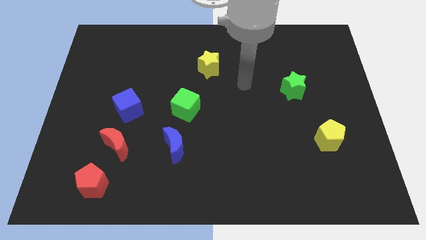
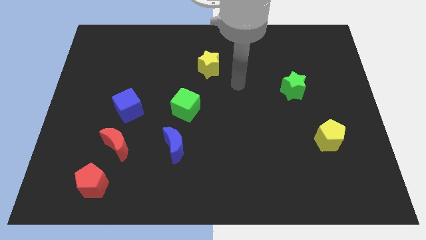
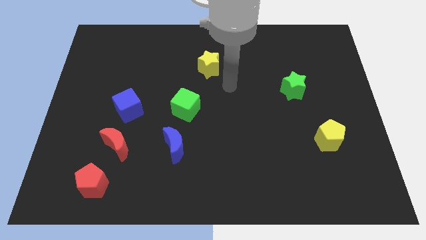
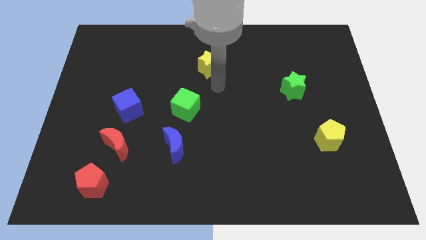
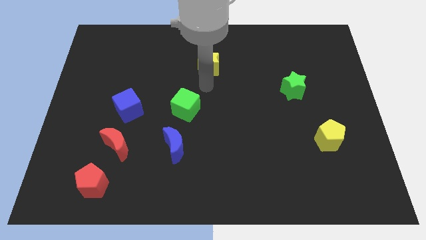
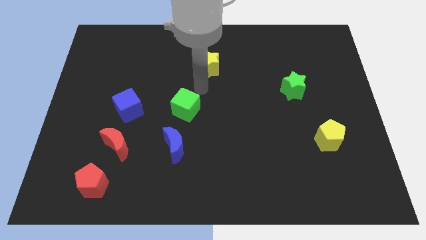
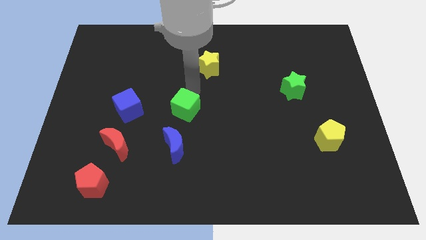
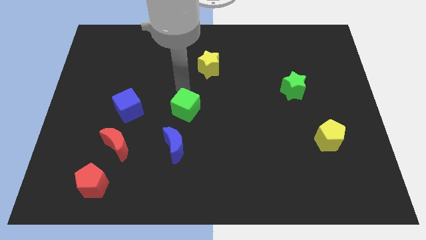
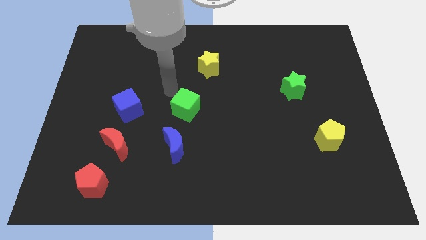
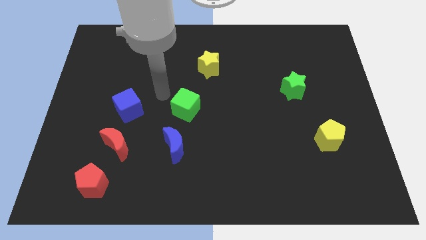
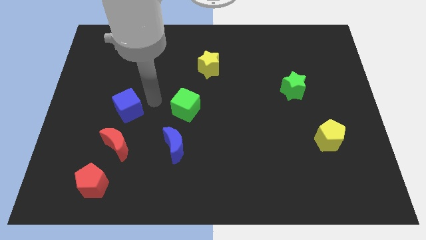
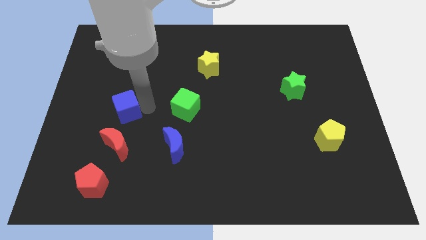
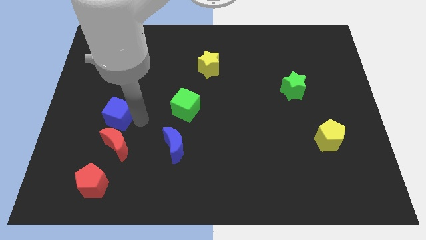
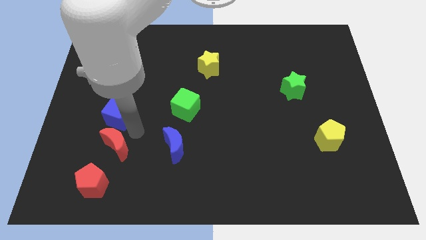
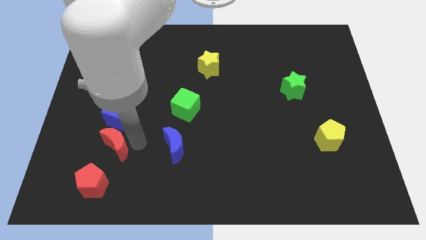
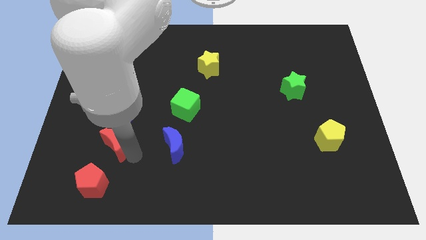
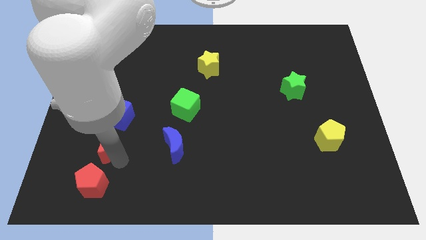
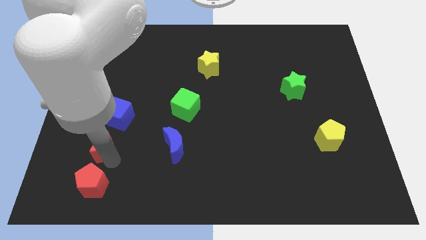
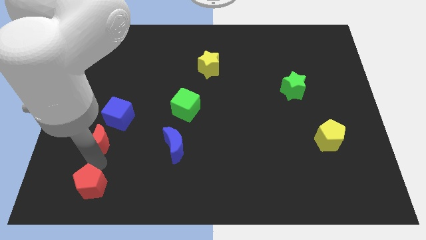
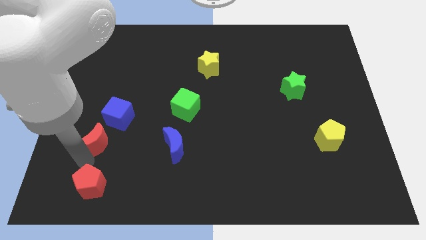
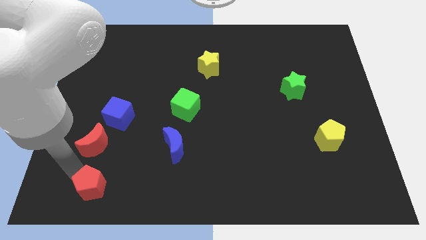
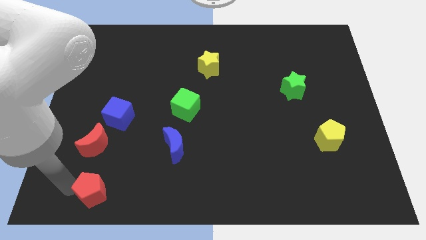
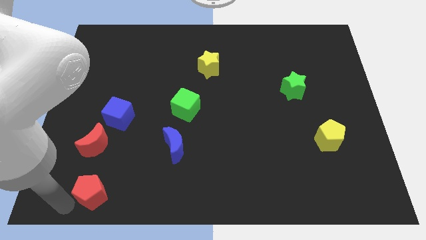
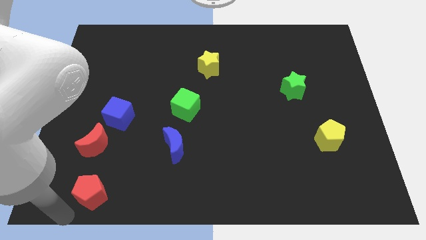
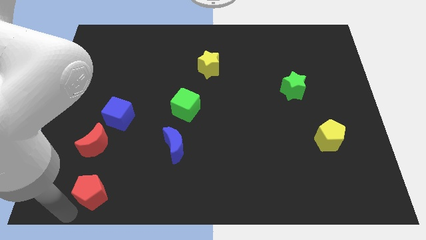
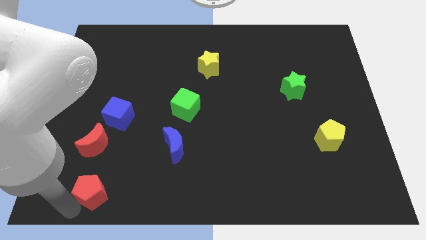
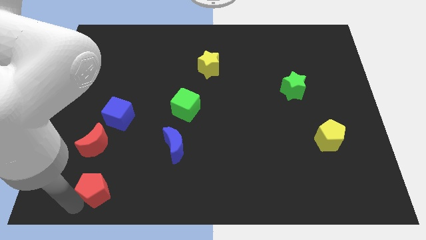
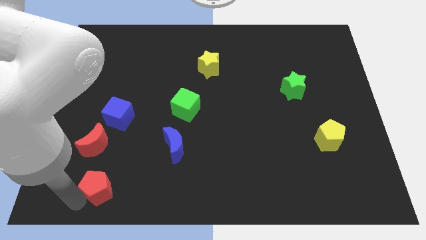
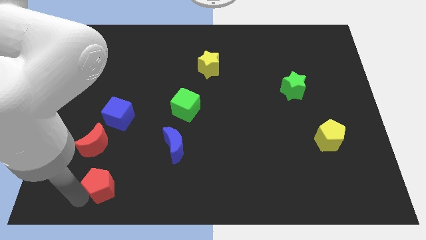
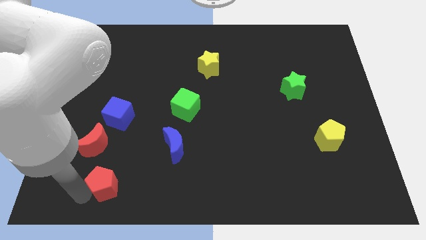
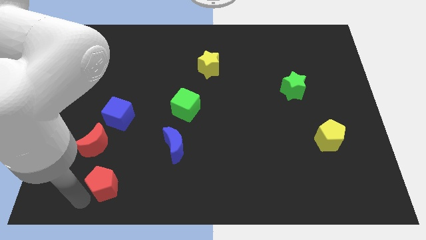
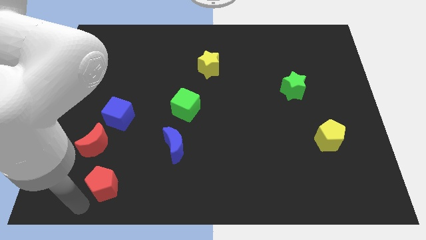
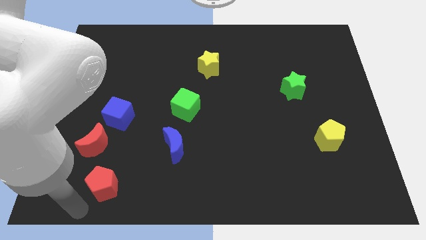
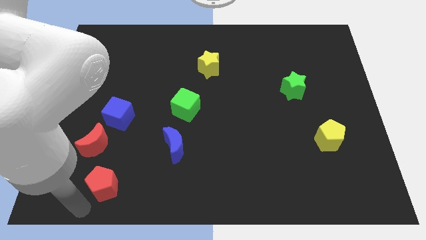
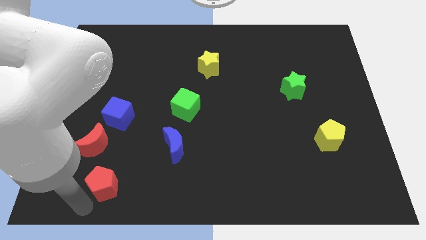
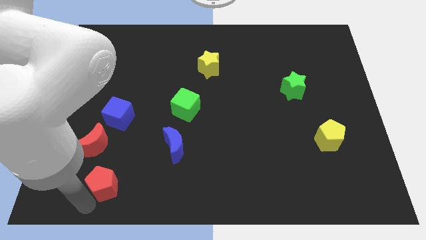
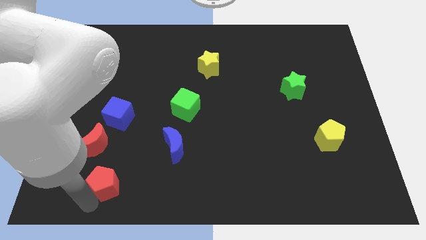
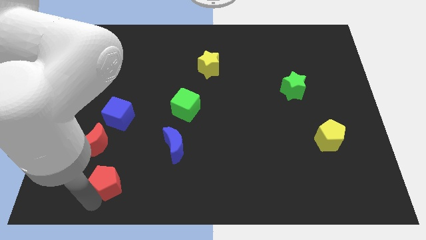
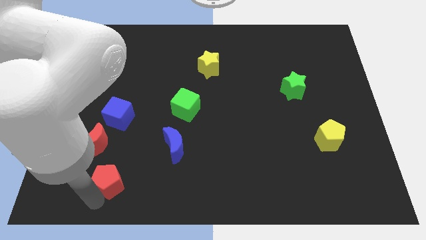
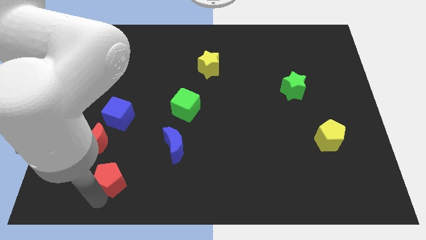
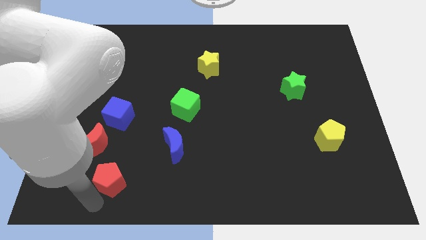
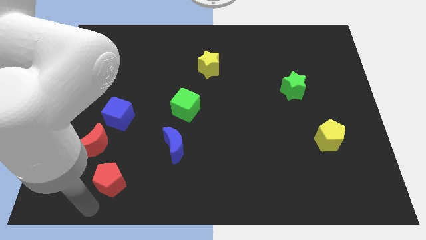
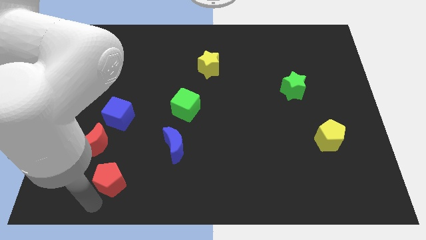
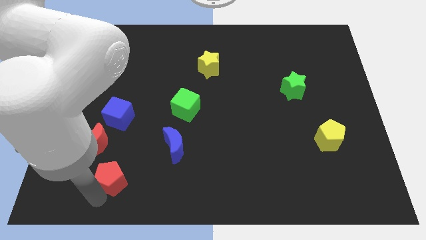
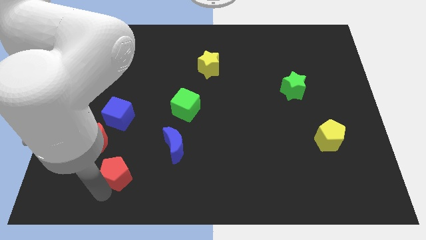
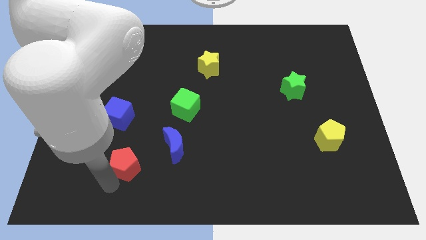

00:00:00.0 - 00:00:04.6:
slightly move the red pentagon up and right

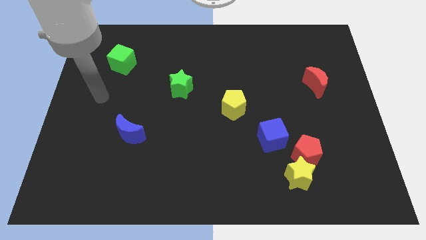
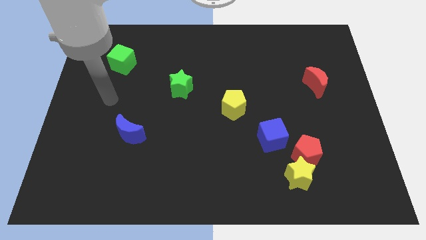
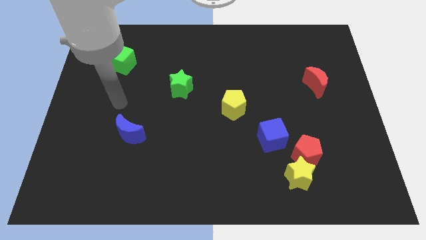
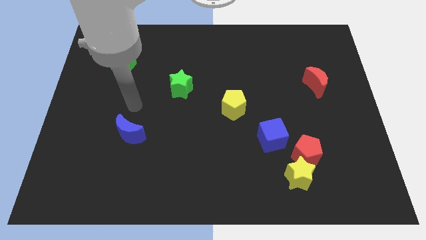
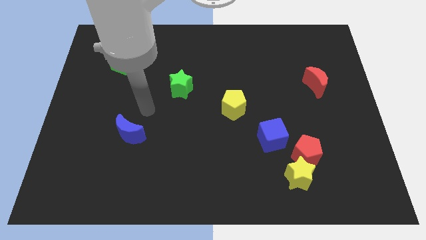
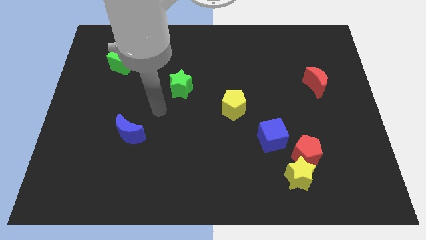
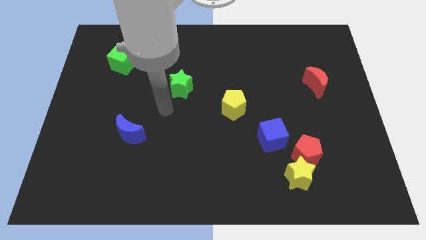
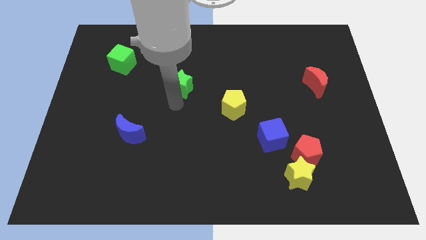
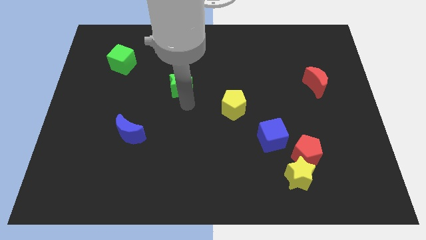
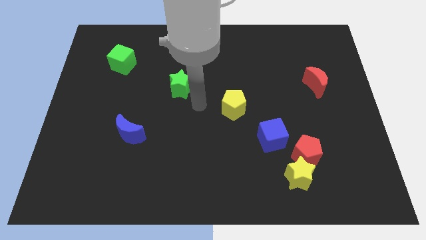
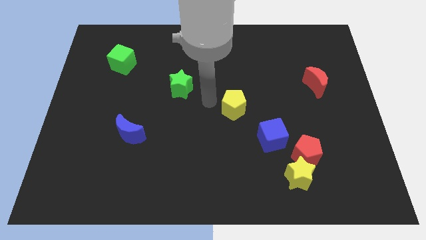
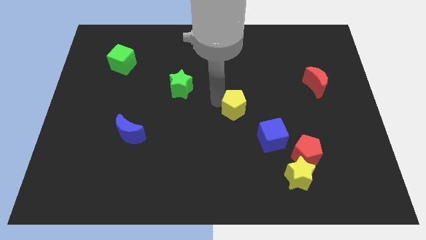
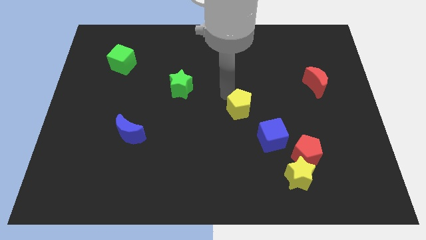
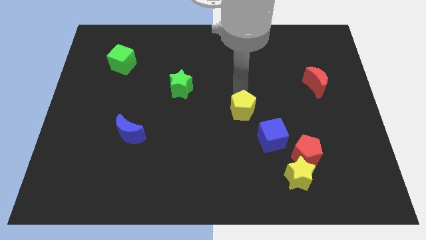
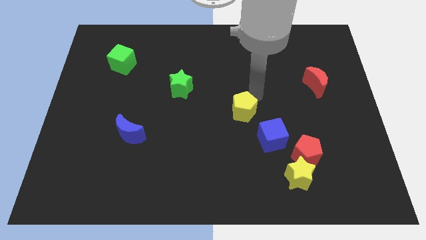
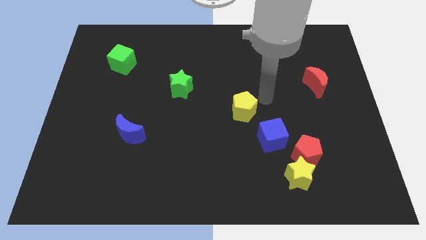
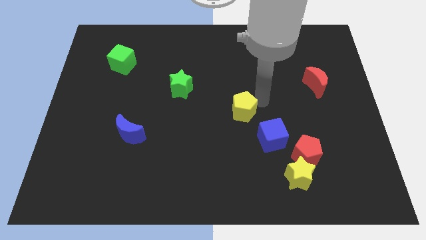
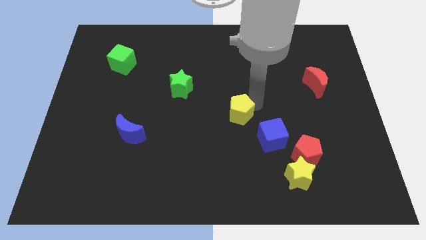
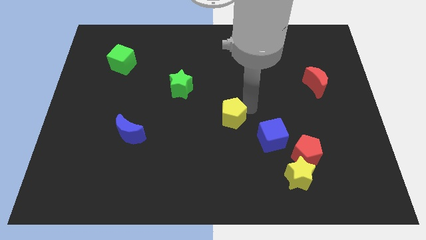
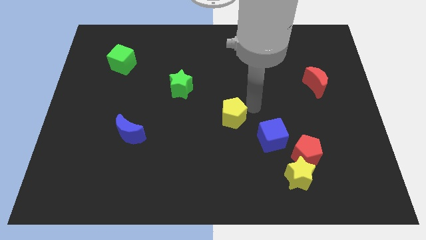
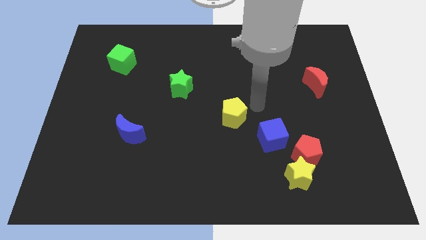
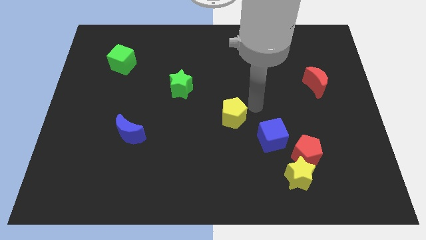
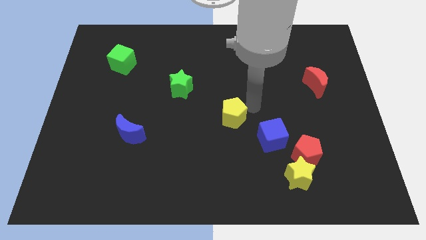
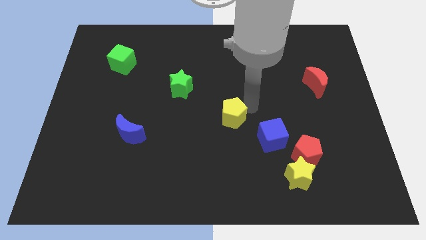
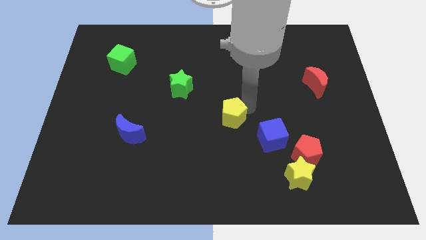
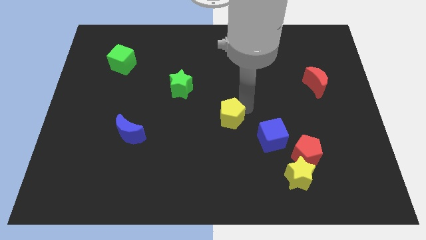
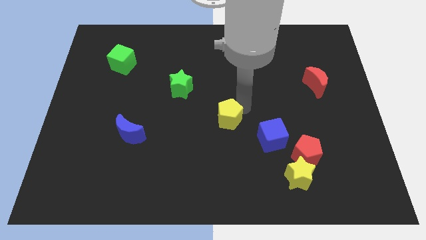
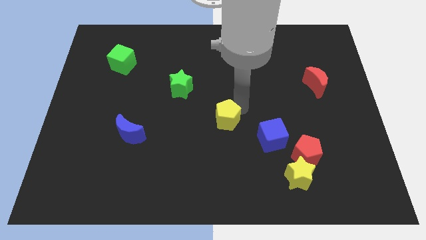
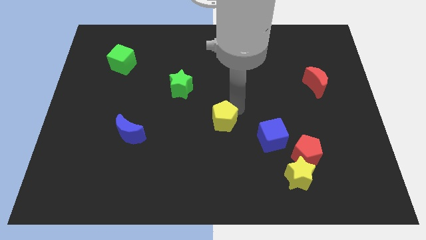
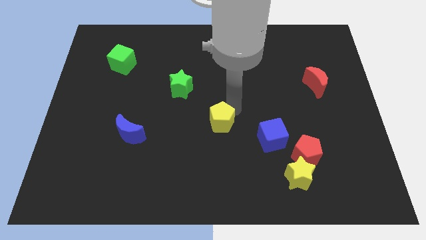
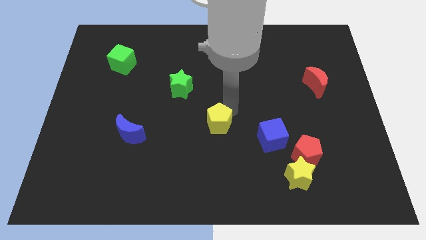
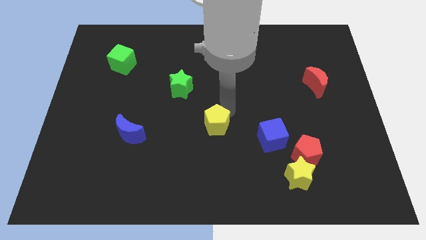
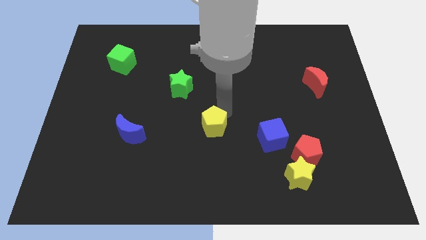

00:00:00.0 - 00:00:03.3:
slightly move the yellow pentagon downwards and left diagonally
